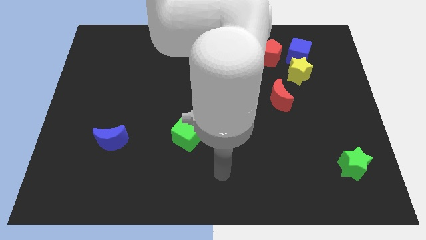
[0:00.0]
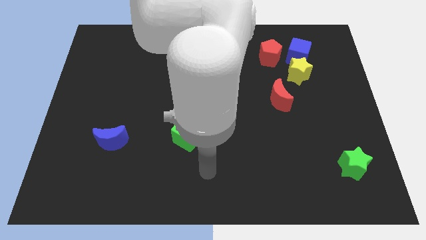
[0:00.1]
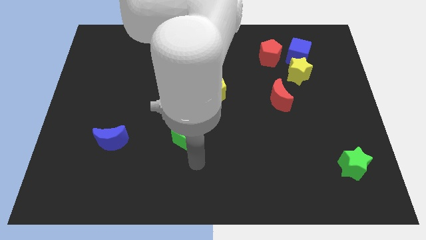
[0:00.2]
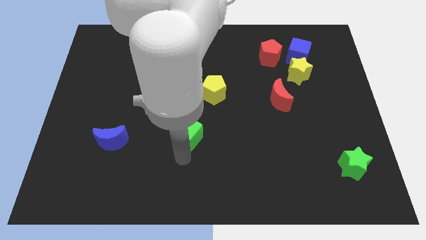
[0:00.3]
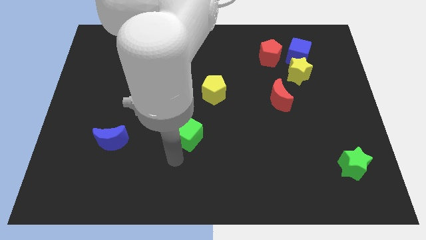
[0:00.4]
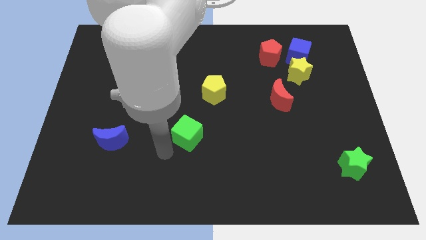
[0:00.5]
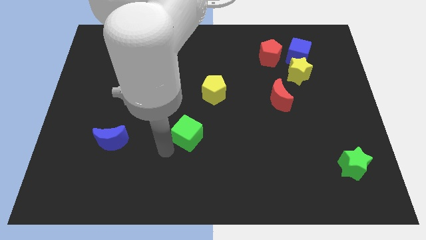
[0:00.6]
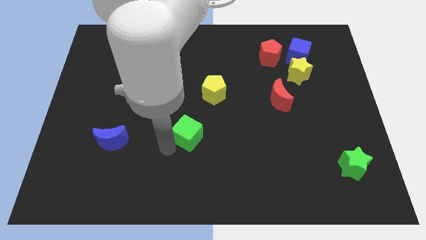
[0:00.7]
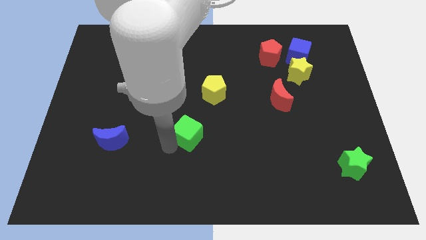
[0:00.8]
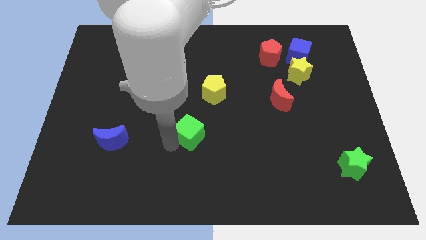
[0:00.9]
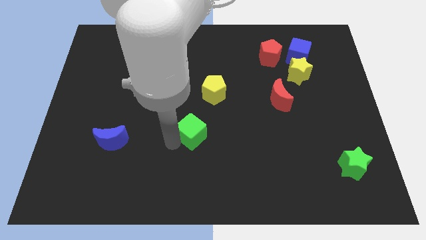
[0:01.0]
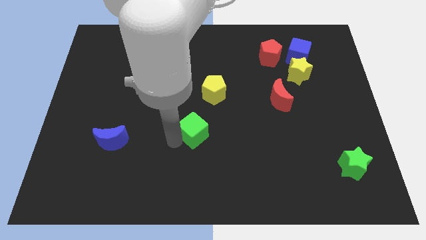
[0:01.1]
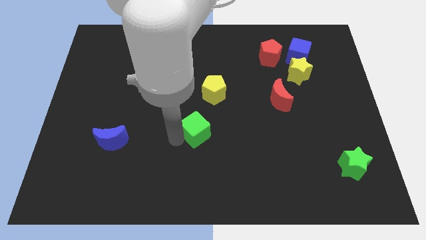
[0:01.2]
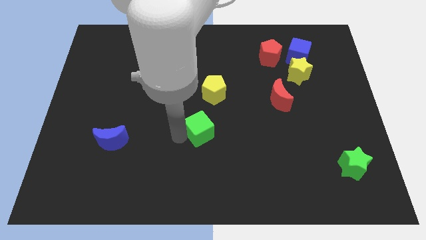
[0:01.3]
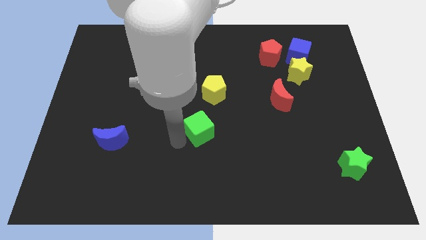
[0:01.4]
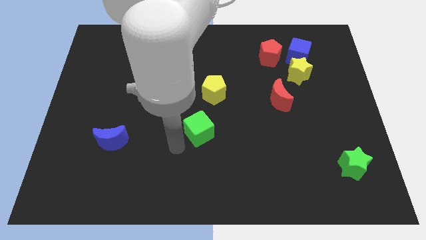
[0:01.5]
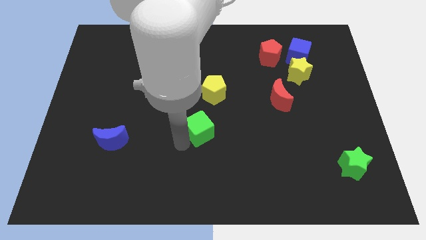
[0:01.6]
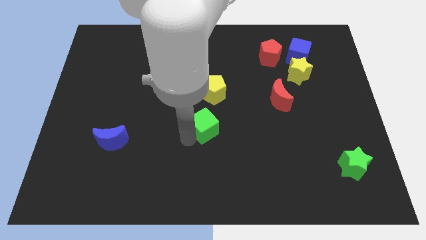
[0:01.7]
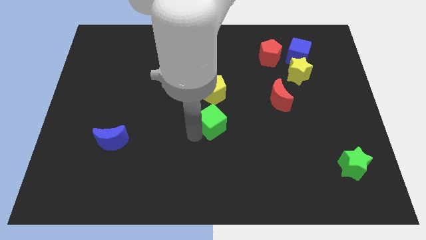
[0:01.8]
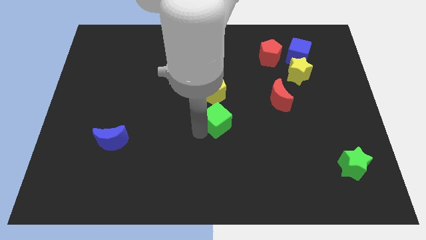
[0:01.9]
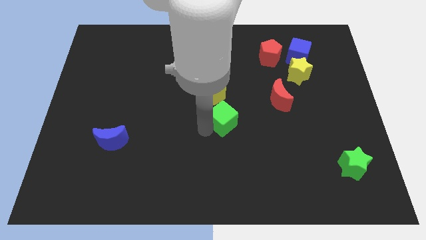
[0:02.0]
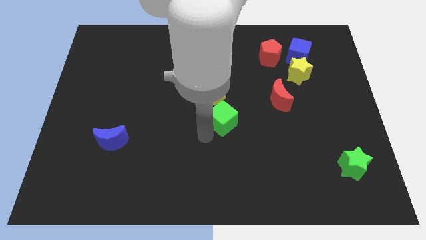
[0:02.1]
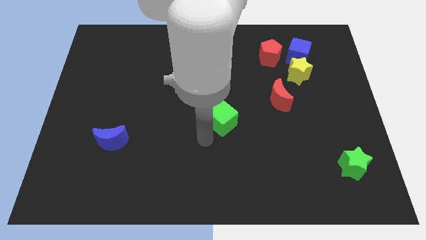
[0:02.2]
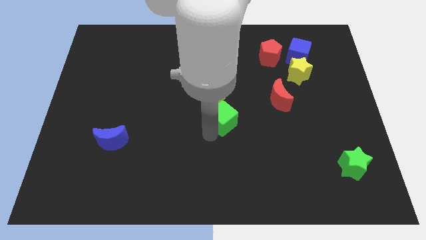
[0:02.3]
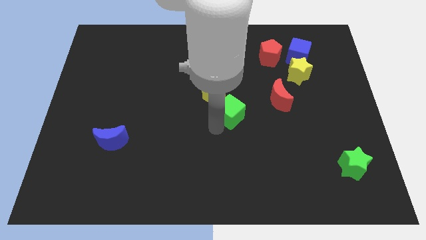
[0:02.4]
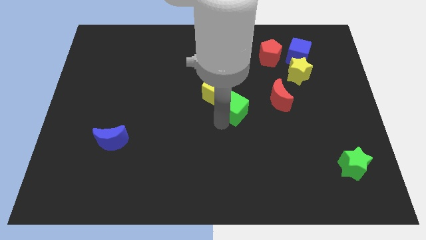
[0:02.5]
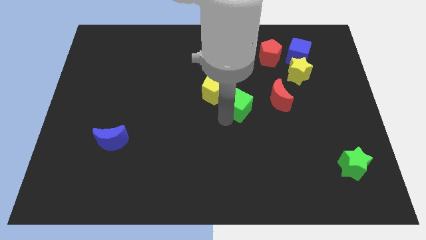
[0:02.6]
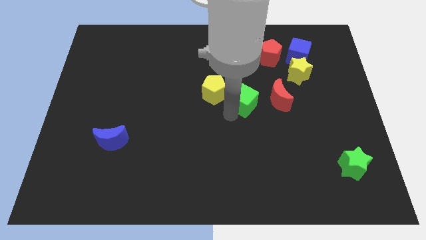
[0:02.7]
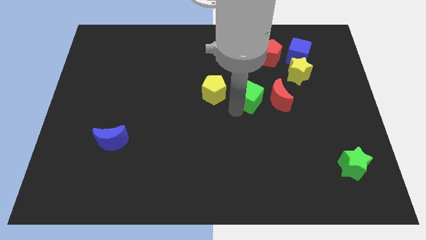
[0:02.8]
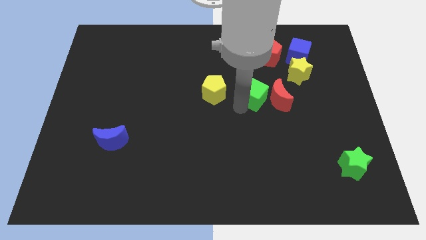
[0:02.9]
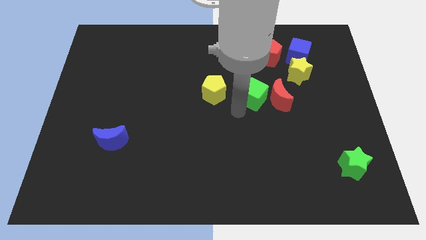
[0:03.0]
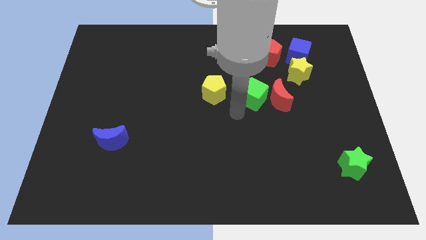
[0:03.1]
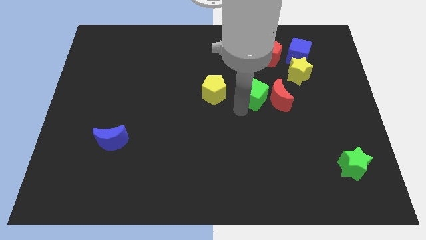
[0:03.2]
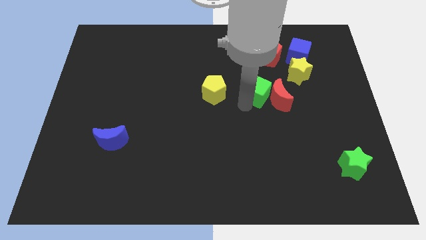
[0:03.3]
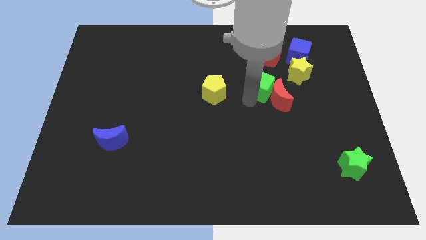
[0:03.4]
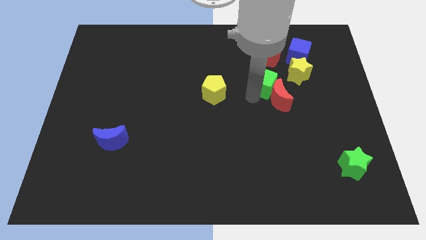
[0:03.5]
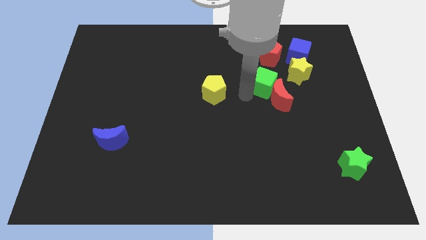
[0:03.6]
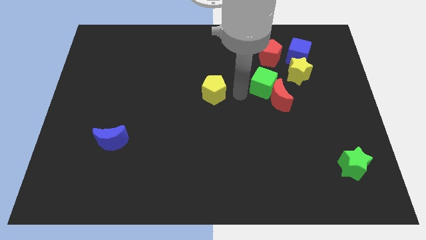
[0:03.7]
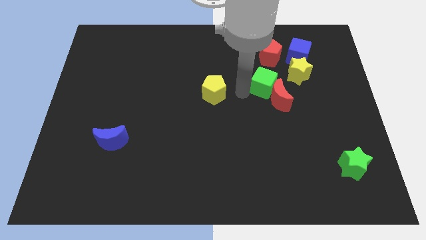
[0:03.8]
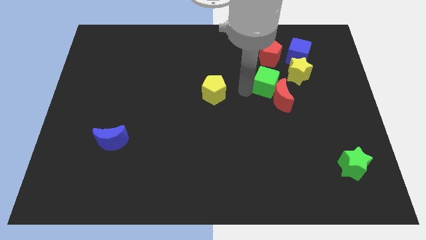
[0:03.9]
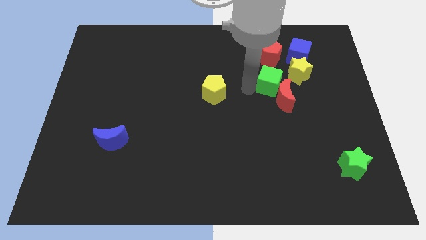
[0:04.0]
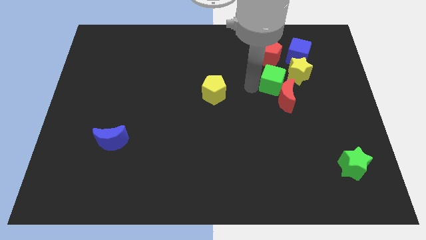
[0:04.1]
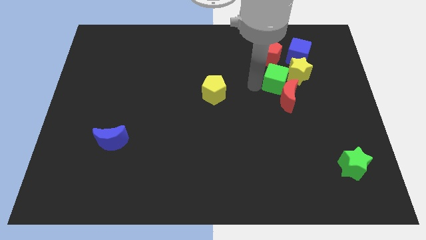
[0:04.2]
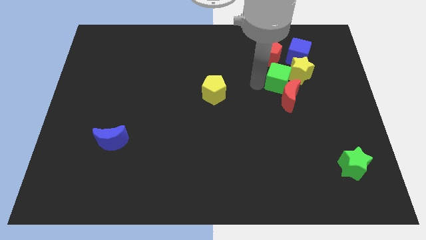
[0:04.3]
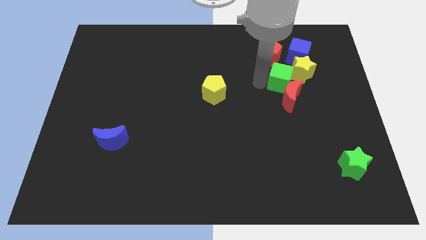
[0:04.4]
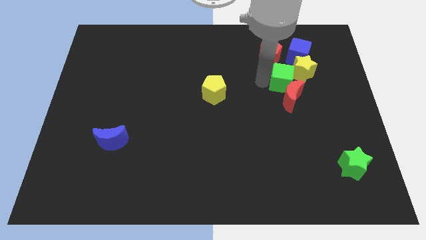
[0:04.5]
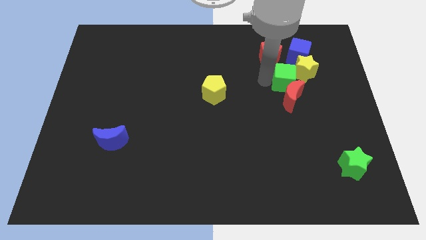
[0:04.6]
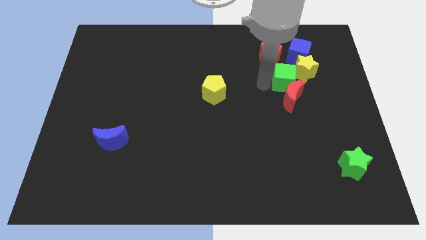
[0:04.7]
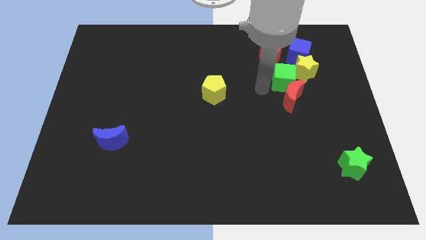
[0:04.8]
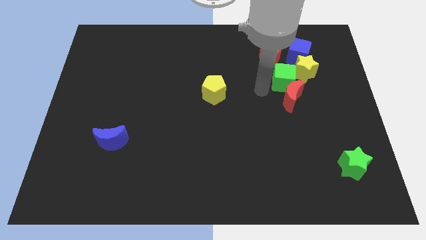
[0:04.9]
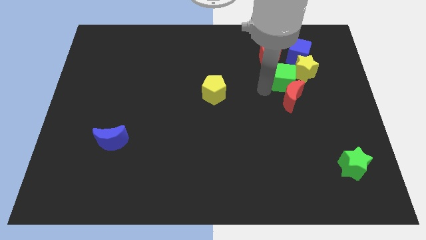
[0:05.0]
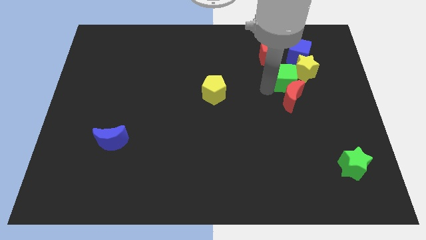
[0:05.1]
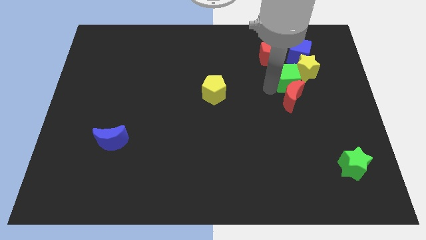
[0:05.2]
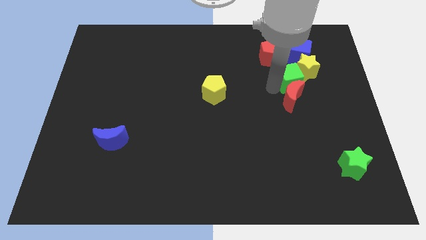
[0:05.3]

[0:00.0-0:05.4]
slide the green cube close to the yellow star

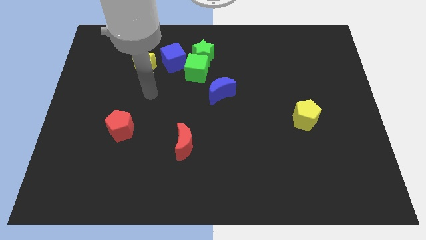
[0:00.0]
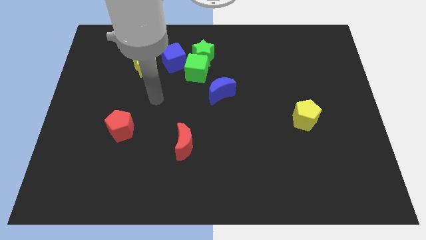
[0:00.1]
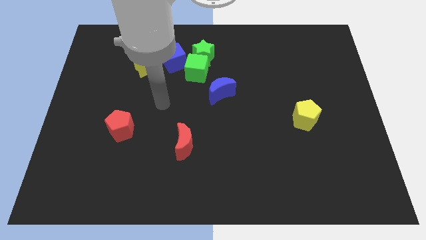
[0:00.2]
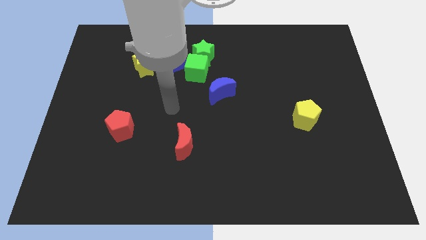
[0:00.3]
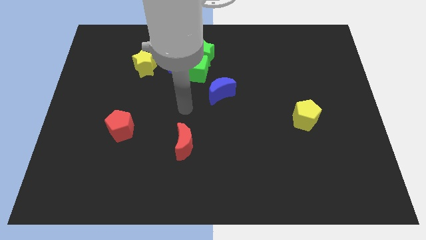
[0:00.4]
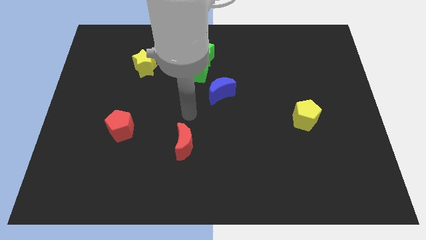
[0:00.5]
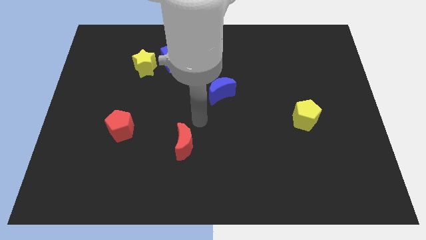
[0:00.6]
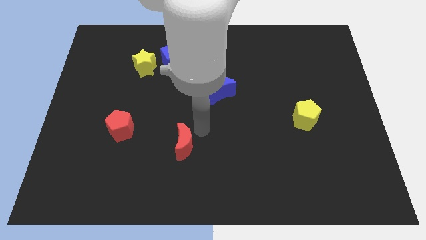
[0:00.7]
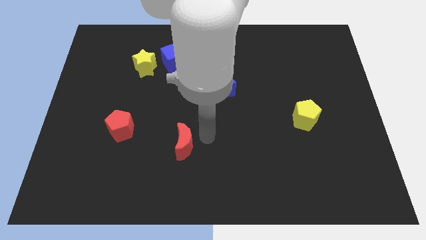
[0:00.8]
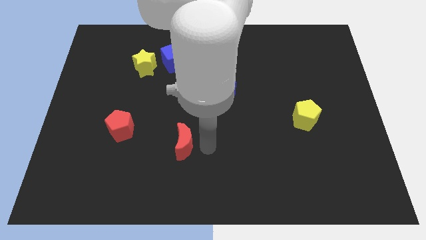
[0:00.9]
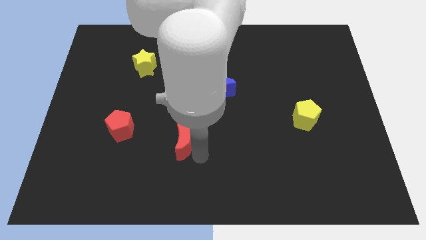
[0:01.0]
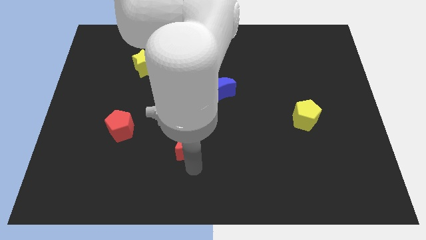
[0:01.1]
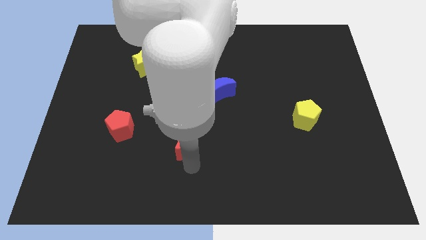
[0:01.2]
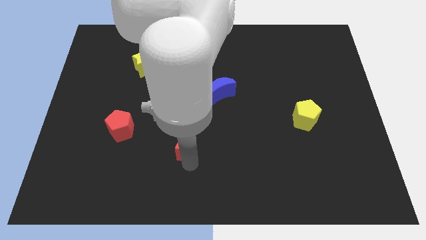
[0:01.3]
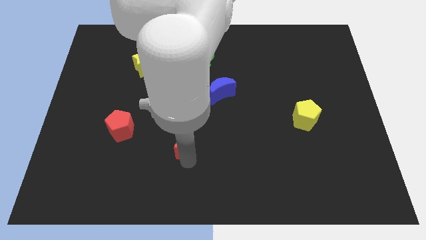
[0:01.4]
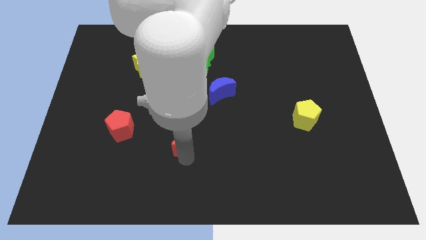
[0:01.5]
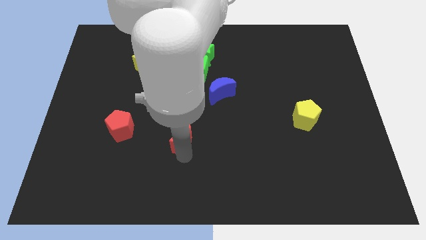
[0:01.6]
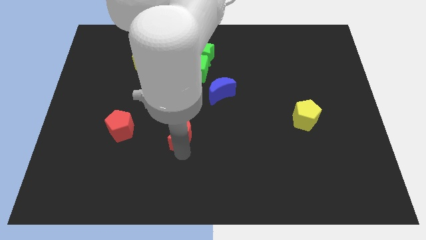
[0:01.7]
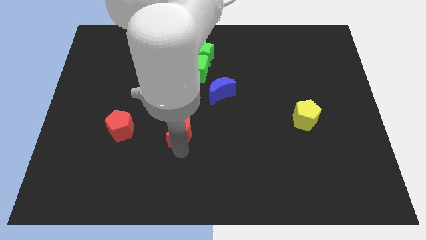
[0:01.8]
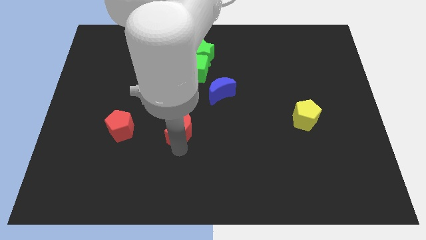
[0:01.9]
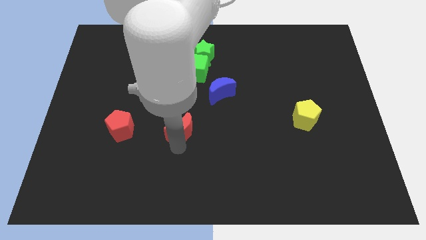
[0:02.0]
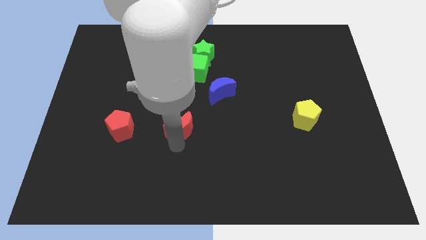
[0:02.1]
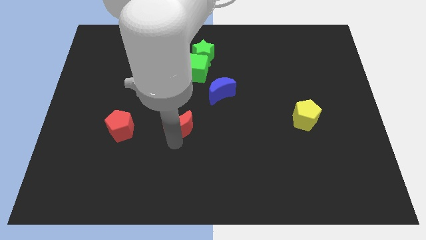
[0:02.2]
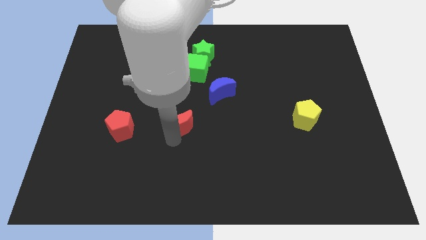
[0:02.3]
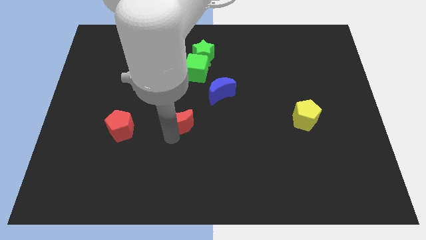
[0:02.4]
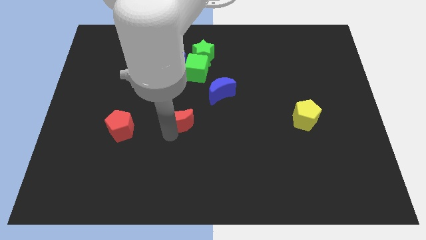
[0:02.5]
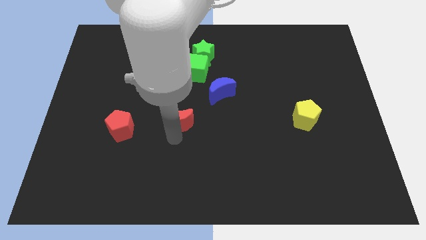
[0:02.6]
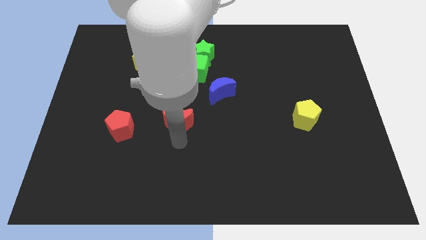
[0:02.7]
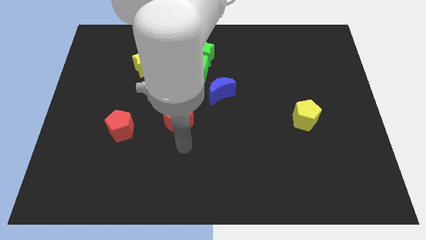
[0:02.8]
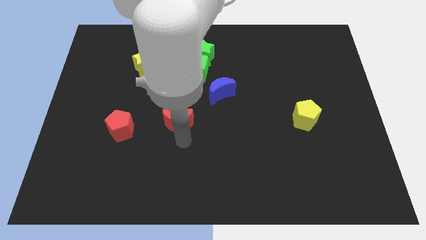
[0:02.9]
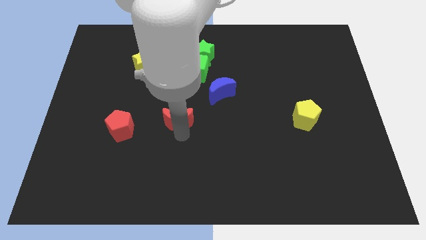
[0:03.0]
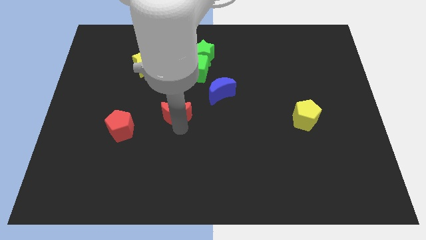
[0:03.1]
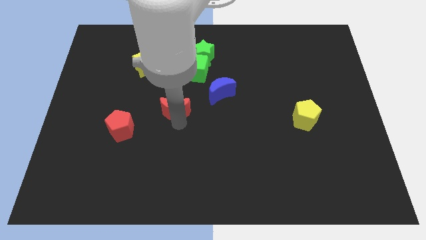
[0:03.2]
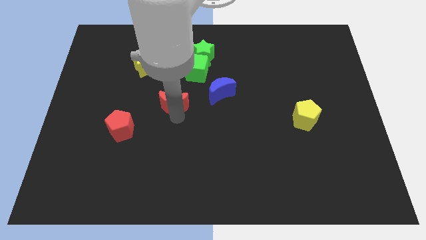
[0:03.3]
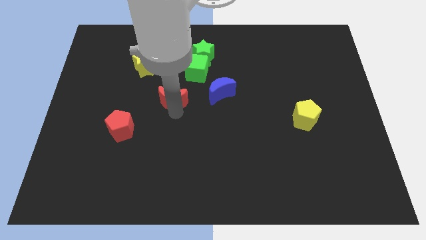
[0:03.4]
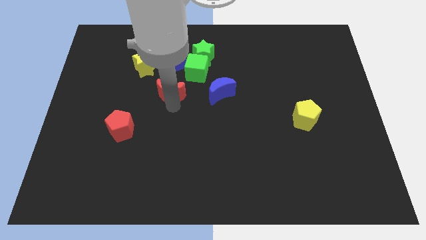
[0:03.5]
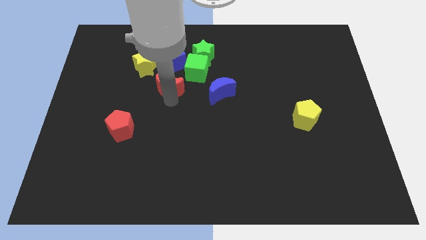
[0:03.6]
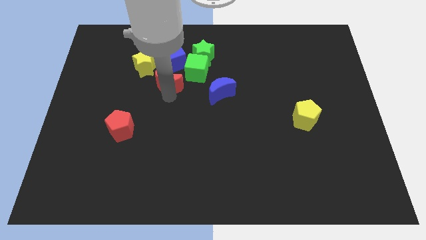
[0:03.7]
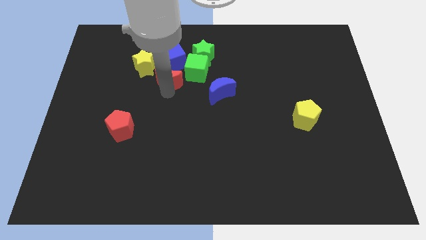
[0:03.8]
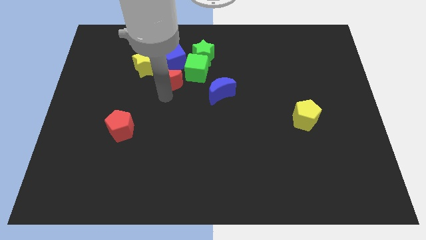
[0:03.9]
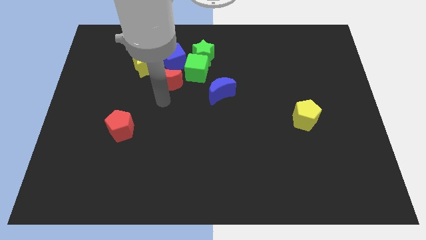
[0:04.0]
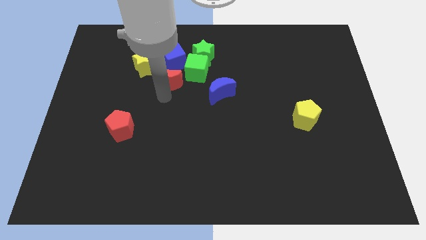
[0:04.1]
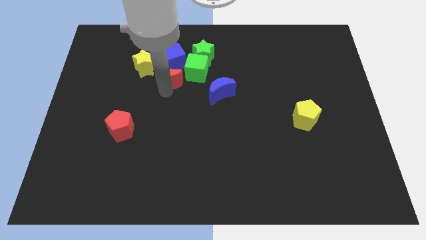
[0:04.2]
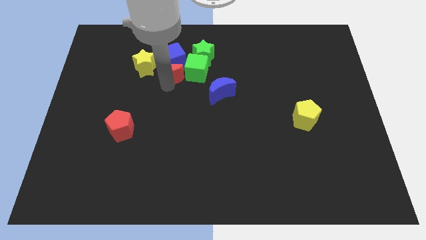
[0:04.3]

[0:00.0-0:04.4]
move the red moon next to the blue cube
